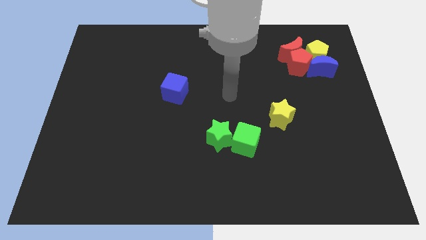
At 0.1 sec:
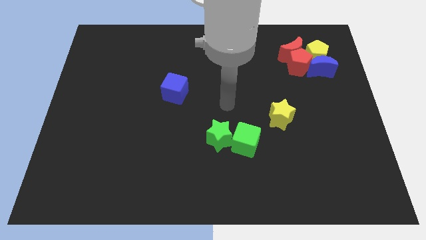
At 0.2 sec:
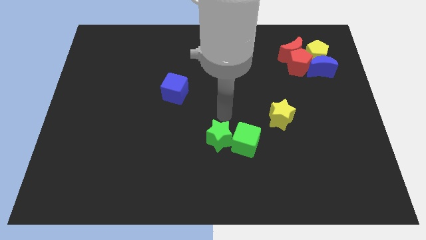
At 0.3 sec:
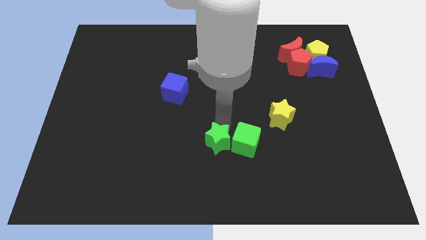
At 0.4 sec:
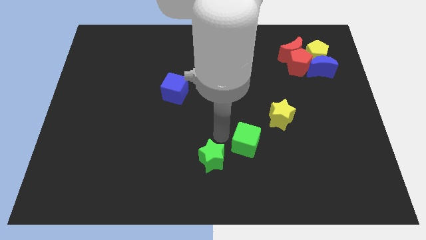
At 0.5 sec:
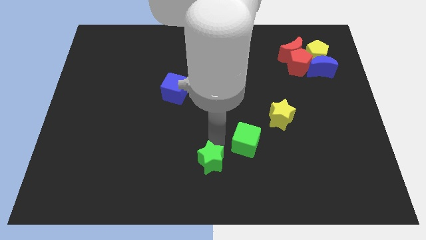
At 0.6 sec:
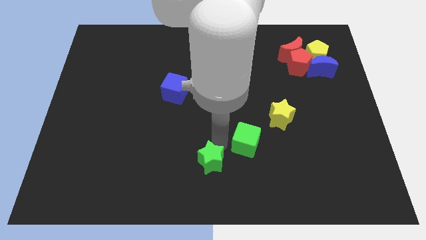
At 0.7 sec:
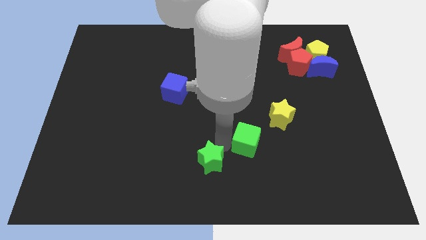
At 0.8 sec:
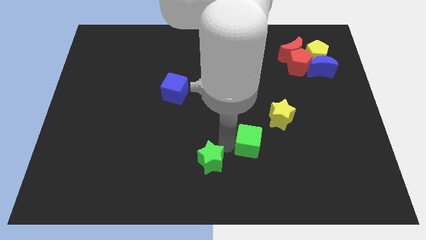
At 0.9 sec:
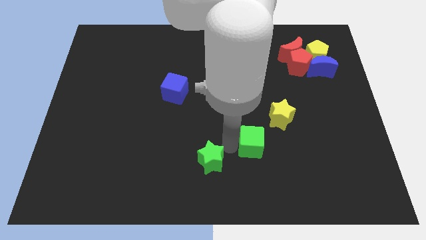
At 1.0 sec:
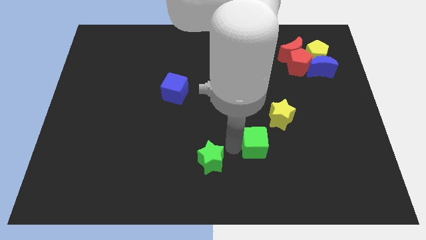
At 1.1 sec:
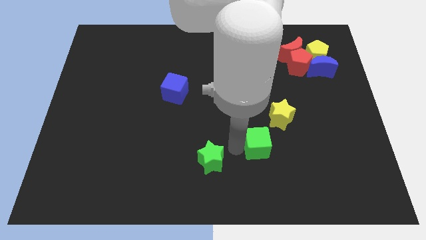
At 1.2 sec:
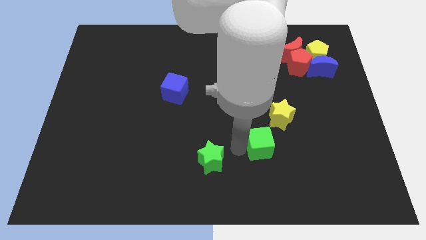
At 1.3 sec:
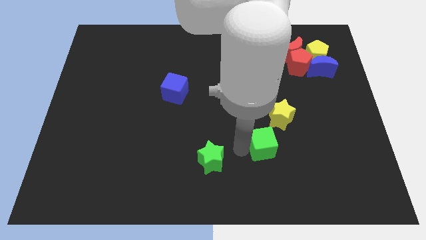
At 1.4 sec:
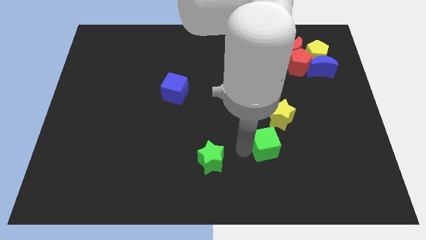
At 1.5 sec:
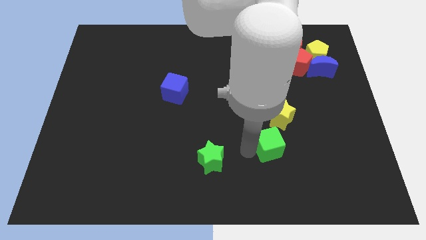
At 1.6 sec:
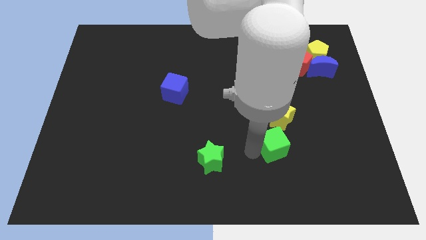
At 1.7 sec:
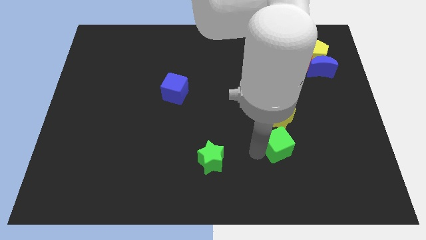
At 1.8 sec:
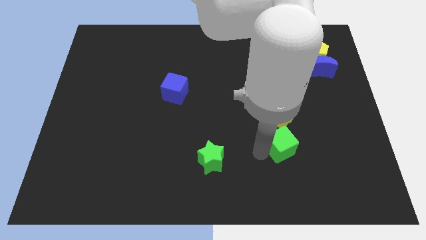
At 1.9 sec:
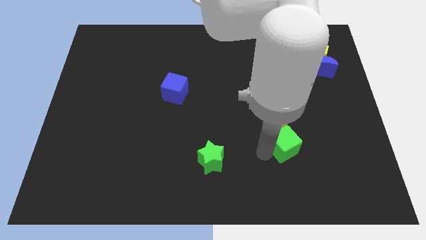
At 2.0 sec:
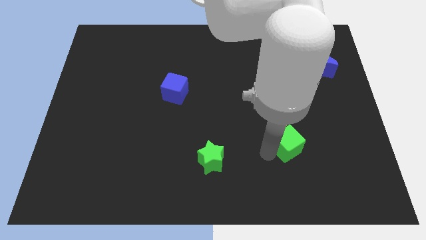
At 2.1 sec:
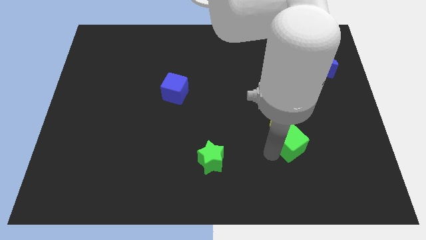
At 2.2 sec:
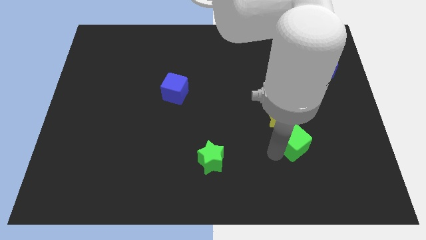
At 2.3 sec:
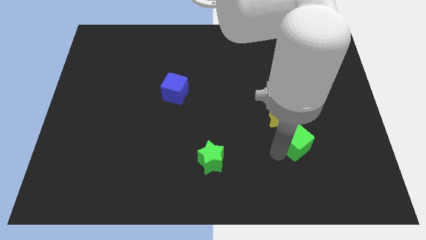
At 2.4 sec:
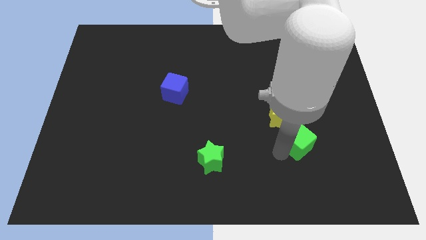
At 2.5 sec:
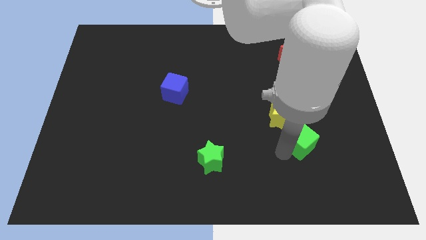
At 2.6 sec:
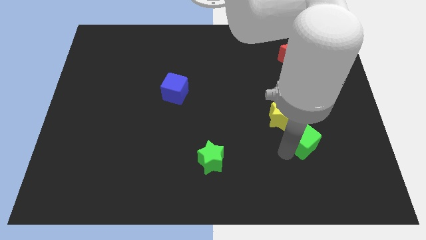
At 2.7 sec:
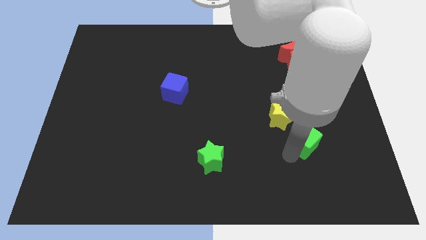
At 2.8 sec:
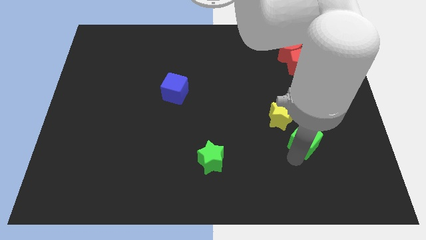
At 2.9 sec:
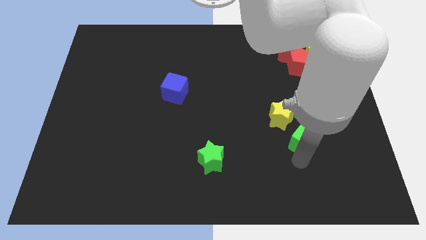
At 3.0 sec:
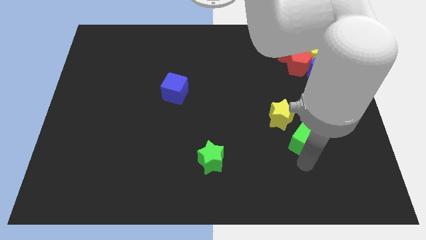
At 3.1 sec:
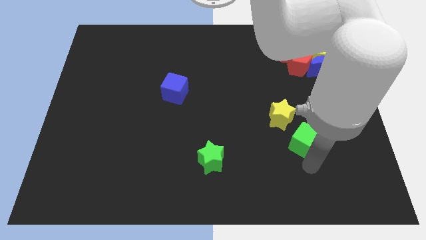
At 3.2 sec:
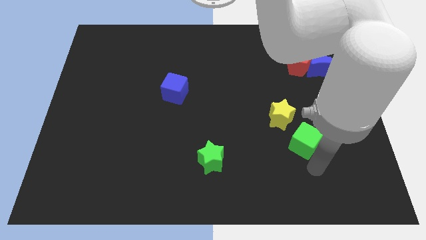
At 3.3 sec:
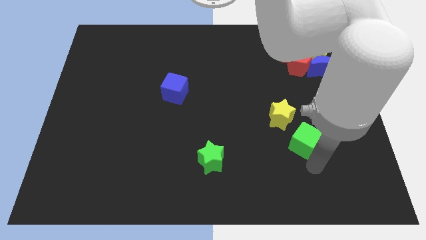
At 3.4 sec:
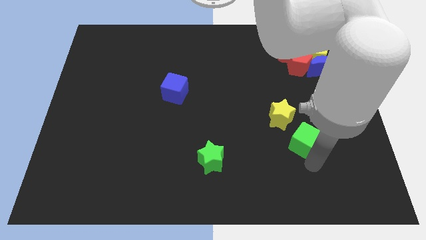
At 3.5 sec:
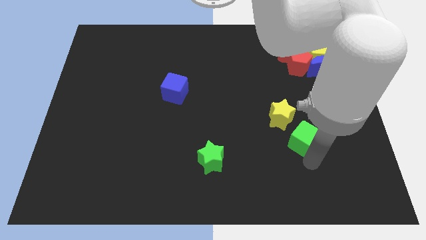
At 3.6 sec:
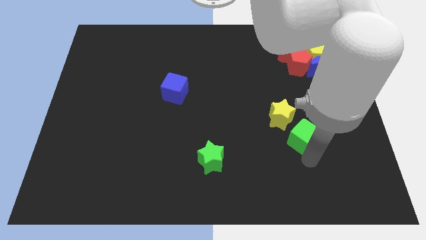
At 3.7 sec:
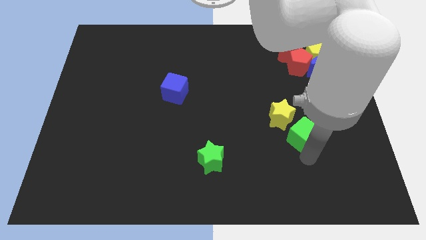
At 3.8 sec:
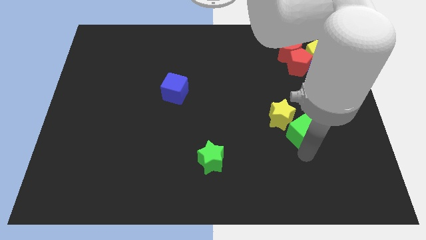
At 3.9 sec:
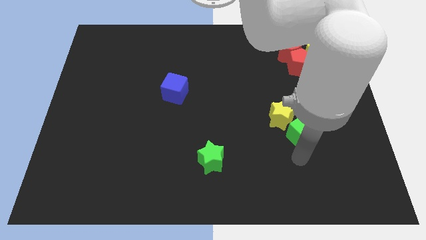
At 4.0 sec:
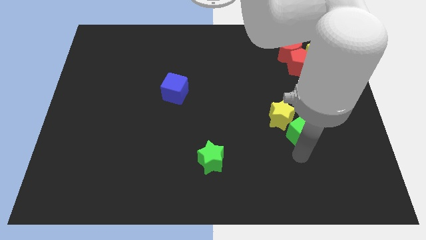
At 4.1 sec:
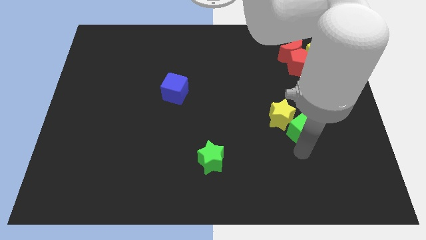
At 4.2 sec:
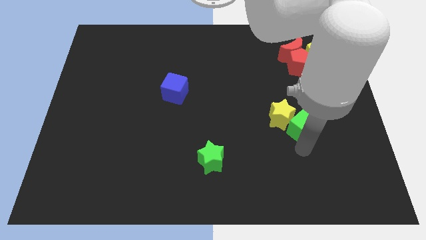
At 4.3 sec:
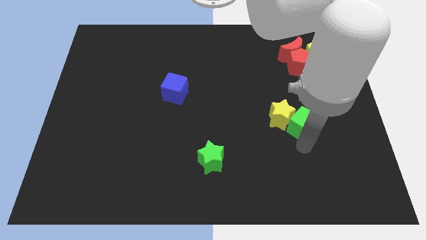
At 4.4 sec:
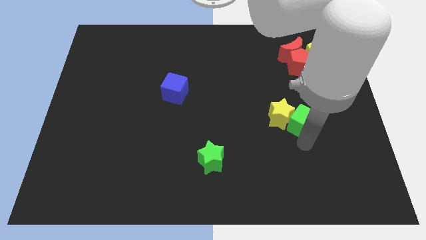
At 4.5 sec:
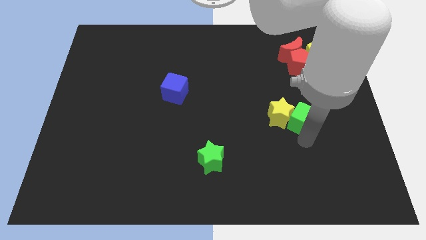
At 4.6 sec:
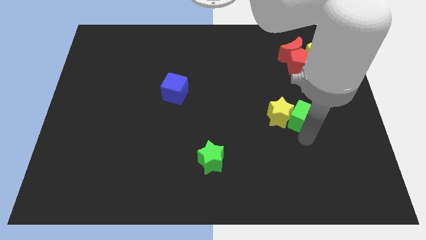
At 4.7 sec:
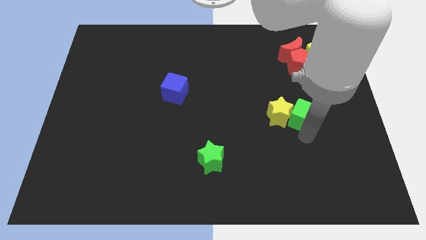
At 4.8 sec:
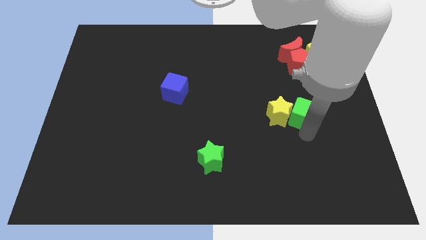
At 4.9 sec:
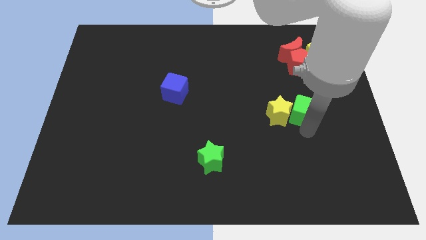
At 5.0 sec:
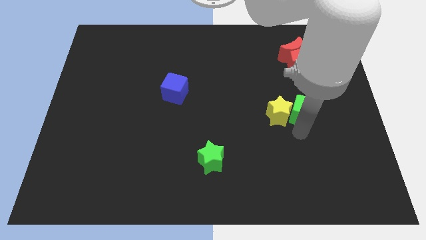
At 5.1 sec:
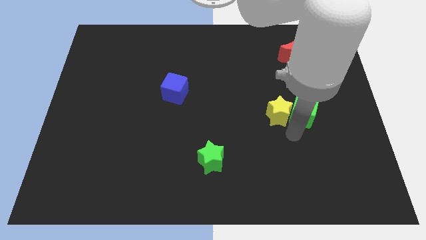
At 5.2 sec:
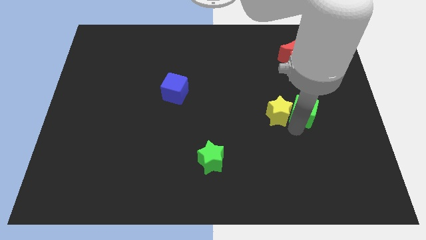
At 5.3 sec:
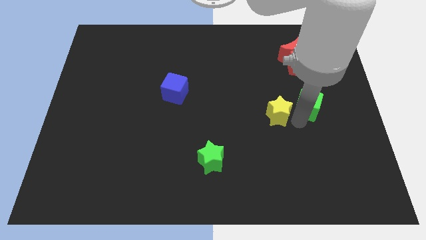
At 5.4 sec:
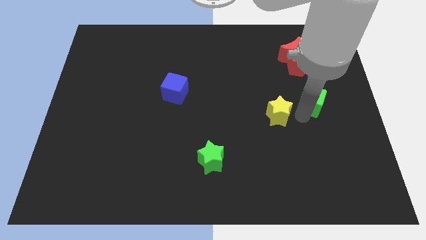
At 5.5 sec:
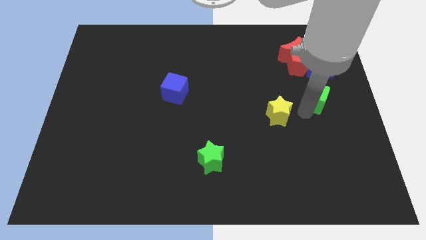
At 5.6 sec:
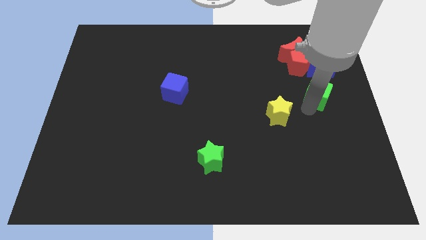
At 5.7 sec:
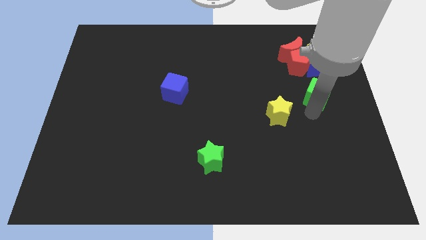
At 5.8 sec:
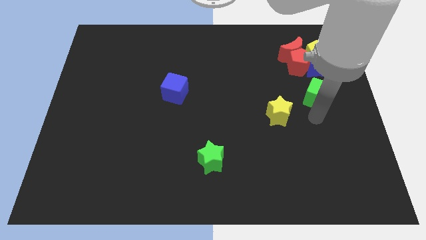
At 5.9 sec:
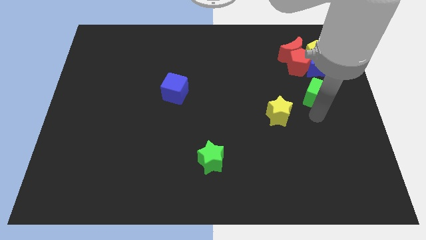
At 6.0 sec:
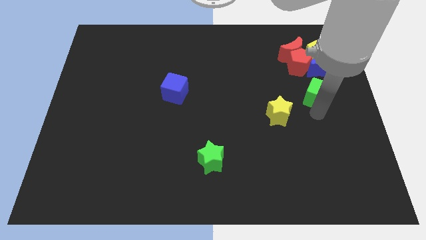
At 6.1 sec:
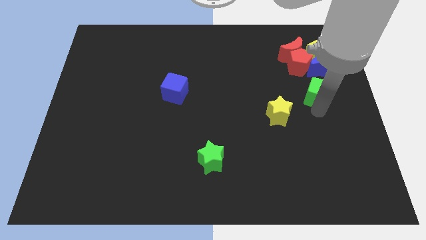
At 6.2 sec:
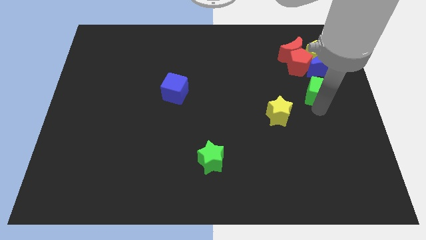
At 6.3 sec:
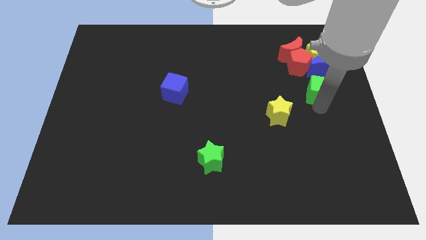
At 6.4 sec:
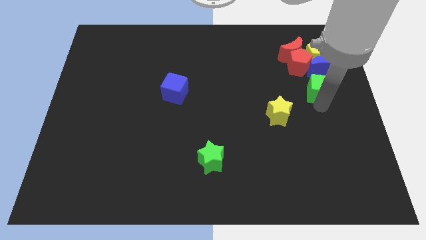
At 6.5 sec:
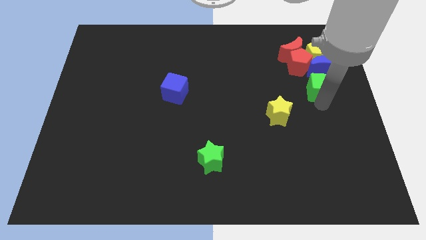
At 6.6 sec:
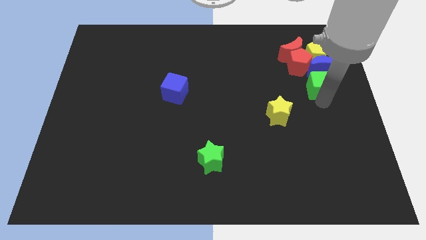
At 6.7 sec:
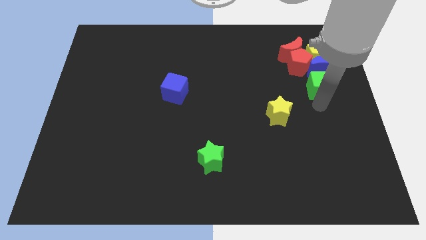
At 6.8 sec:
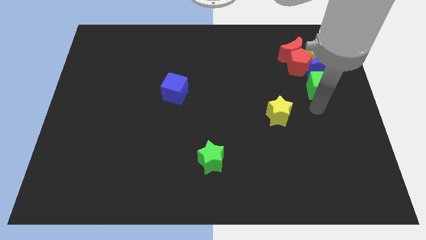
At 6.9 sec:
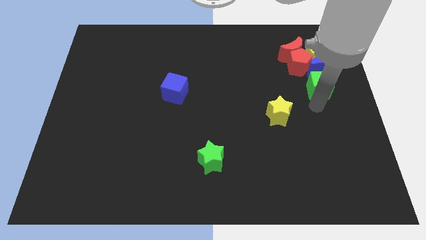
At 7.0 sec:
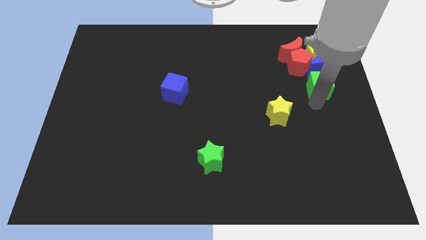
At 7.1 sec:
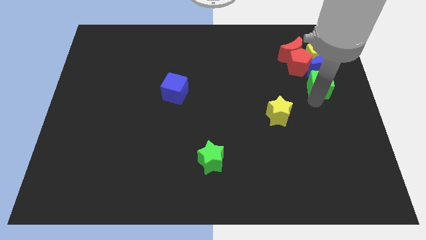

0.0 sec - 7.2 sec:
put the green cube next to the blue moon
